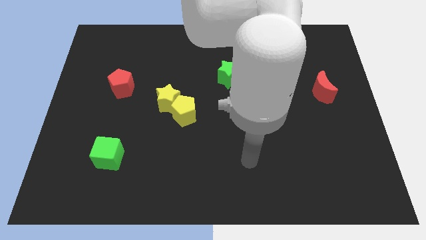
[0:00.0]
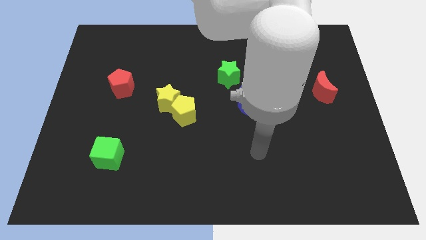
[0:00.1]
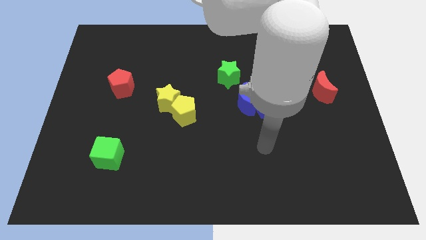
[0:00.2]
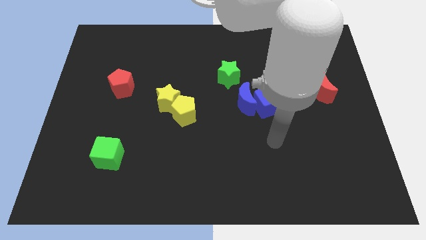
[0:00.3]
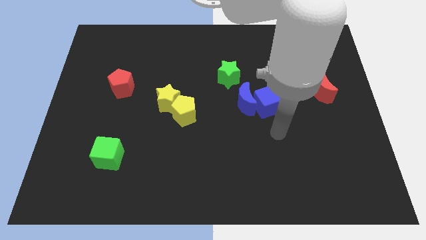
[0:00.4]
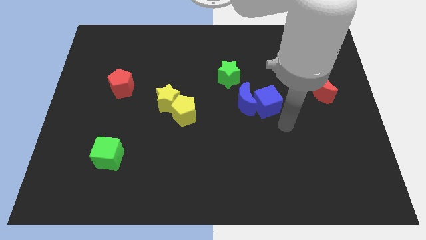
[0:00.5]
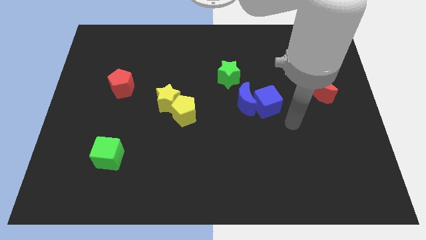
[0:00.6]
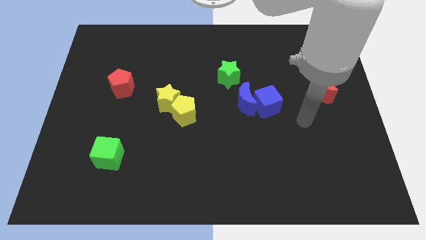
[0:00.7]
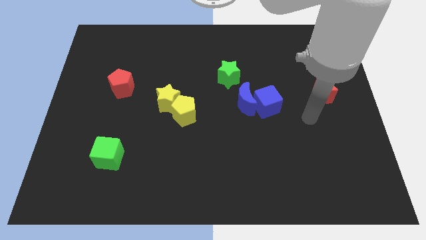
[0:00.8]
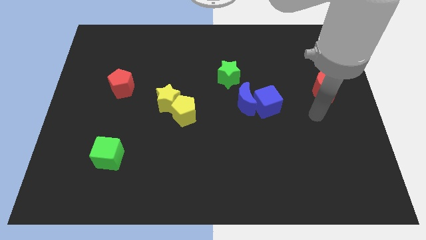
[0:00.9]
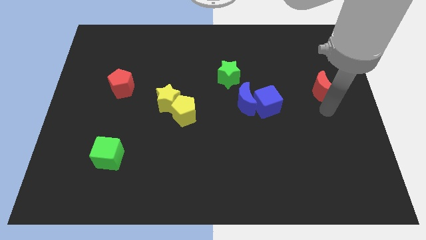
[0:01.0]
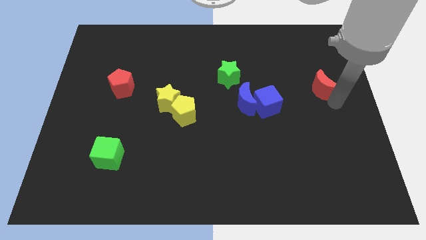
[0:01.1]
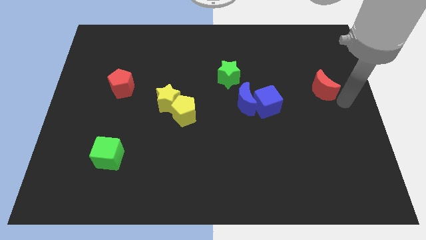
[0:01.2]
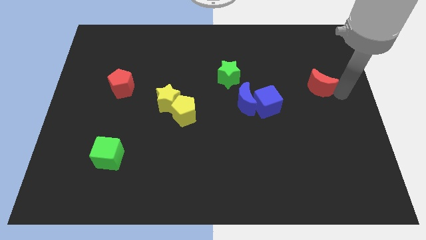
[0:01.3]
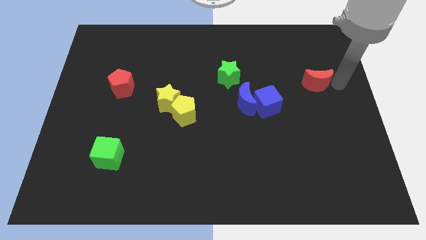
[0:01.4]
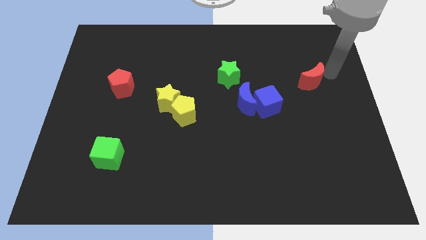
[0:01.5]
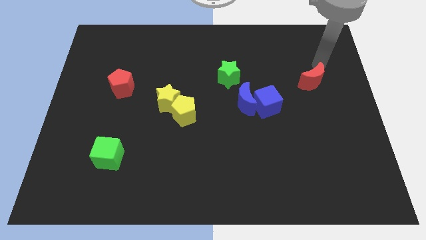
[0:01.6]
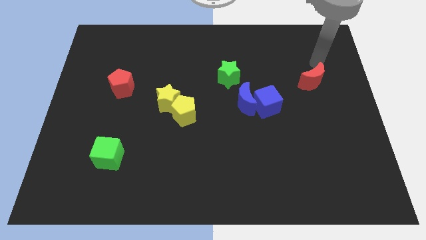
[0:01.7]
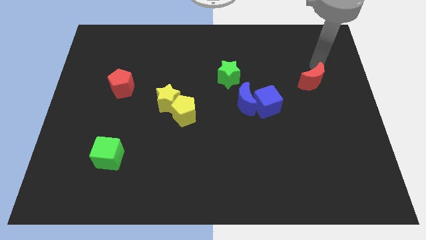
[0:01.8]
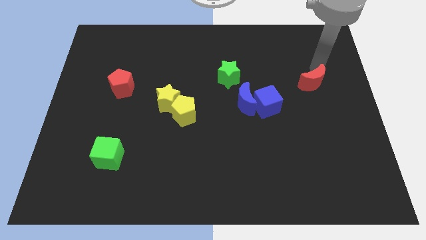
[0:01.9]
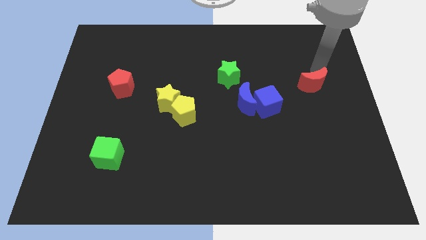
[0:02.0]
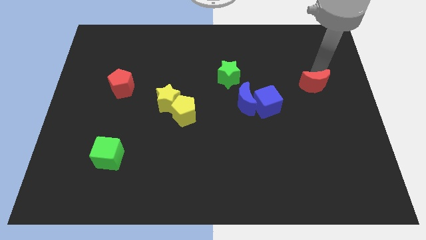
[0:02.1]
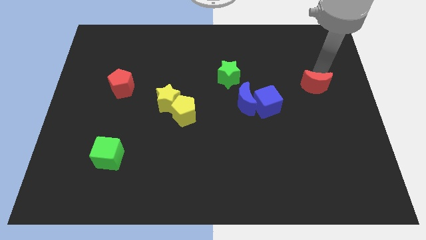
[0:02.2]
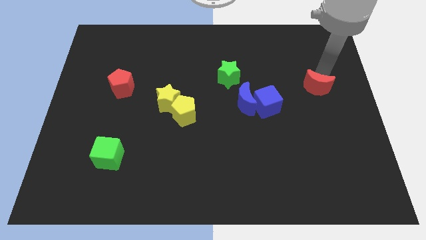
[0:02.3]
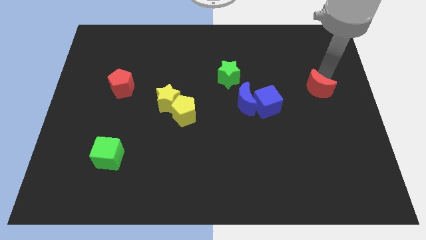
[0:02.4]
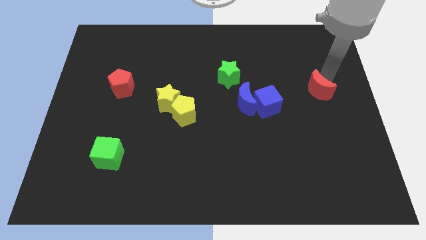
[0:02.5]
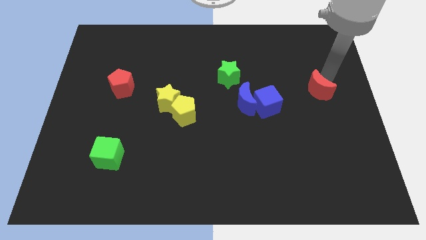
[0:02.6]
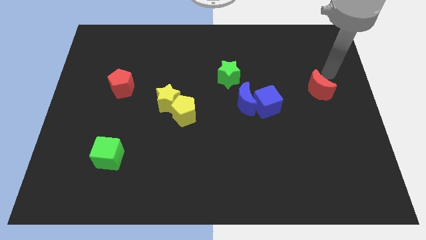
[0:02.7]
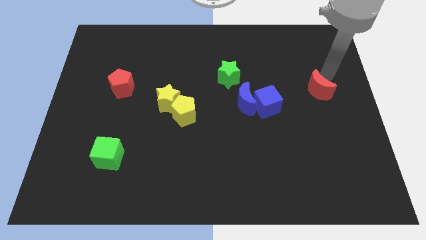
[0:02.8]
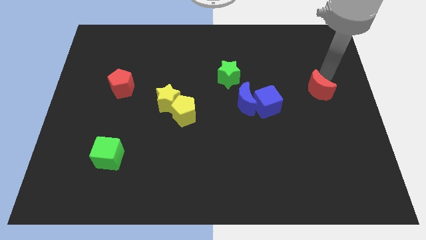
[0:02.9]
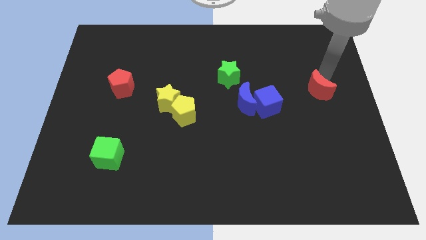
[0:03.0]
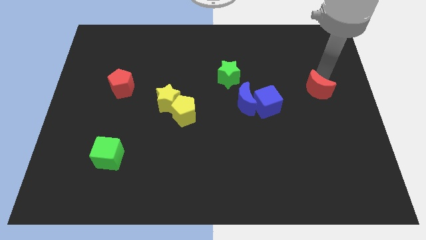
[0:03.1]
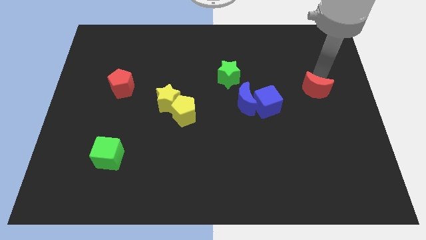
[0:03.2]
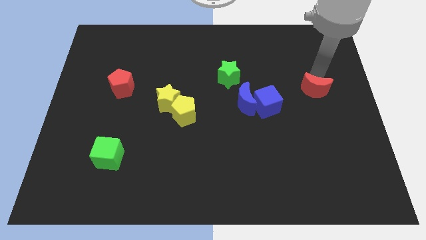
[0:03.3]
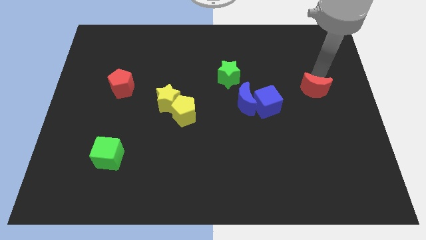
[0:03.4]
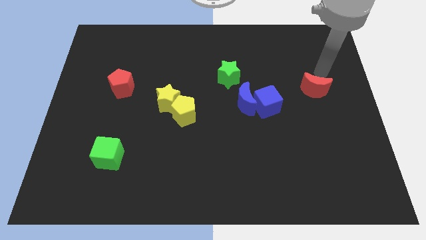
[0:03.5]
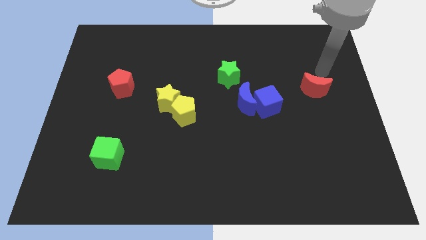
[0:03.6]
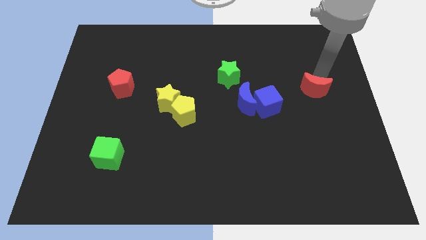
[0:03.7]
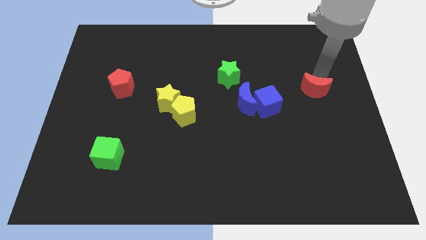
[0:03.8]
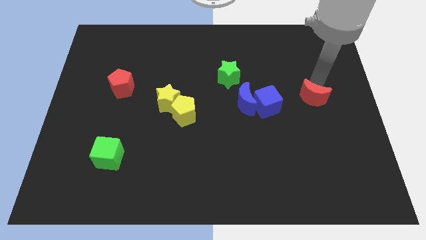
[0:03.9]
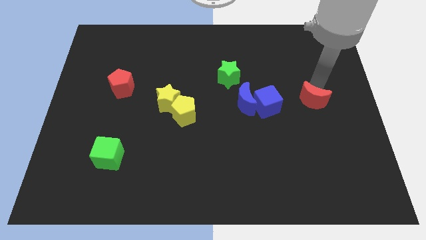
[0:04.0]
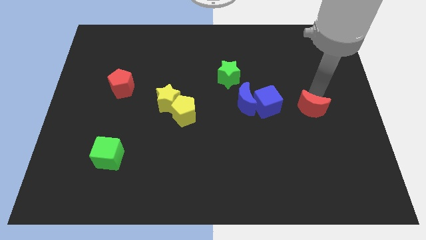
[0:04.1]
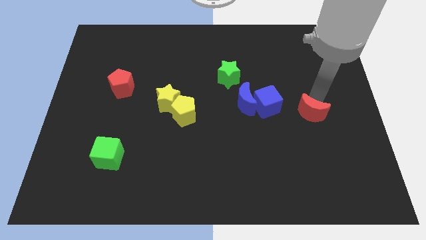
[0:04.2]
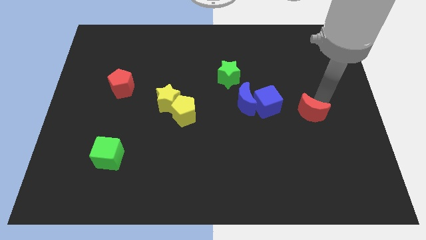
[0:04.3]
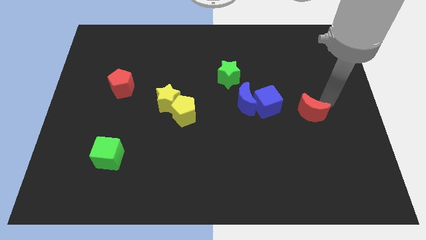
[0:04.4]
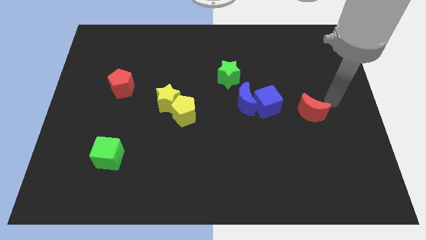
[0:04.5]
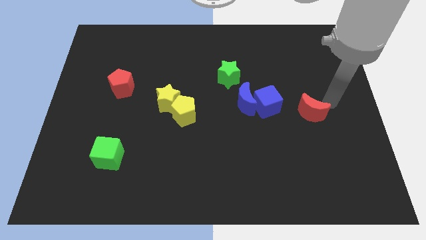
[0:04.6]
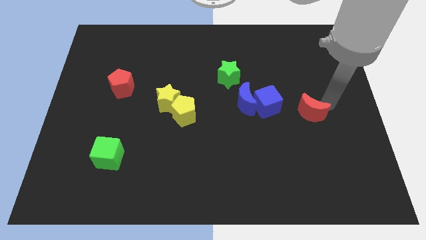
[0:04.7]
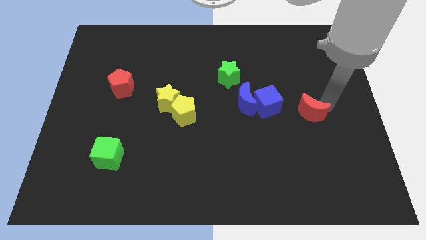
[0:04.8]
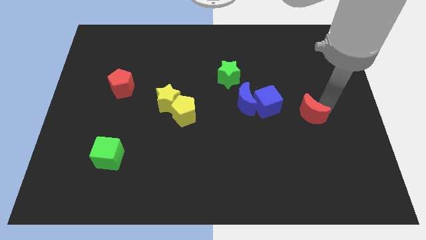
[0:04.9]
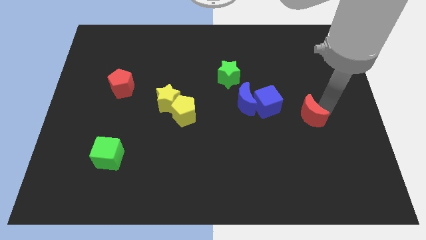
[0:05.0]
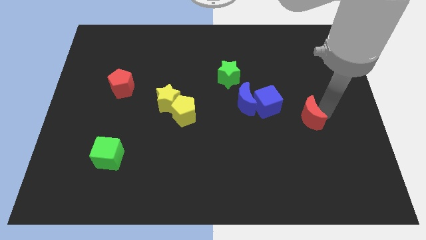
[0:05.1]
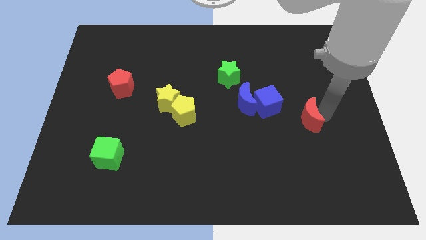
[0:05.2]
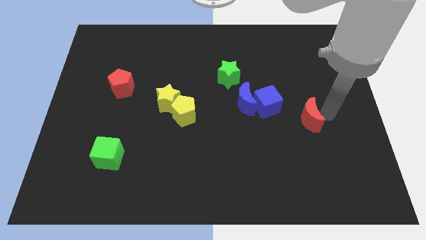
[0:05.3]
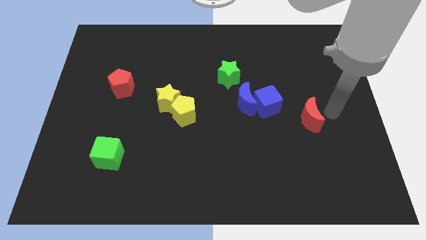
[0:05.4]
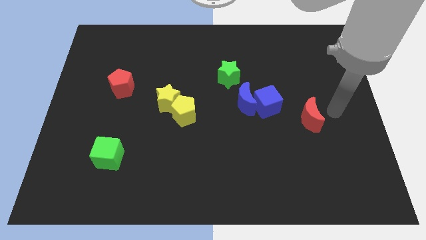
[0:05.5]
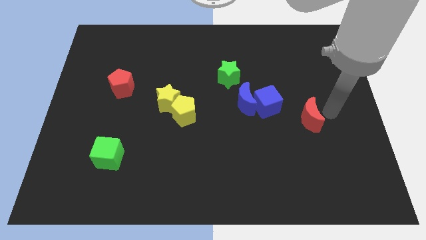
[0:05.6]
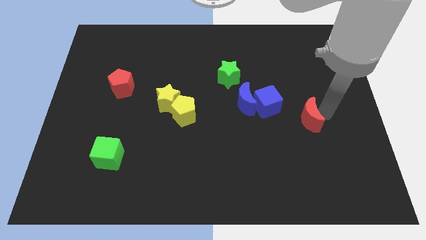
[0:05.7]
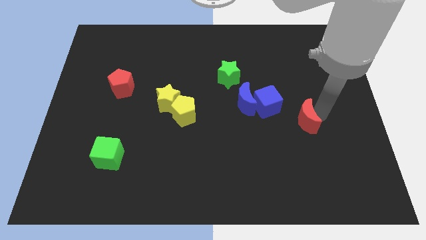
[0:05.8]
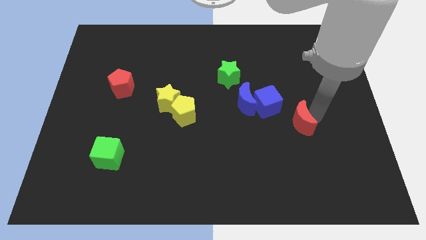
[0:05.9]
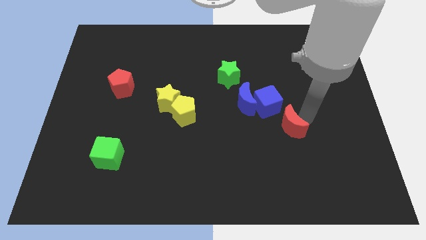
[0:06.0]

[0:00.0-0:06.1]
push the red moon below the blue cube

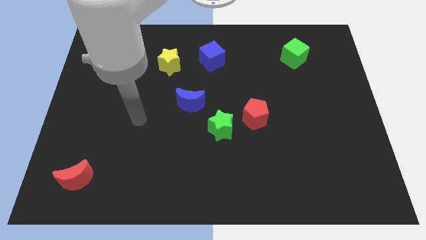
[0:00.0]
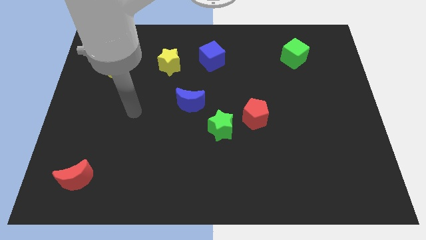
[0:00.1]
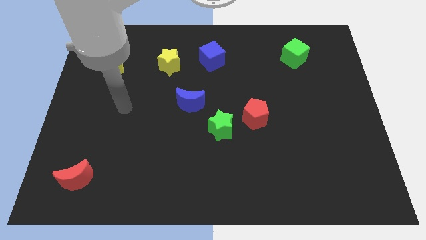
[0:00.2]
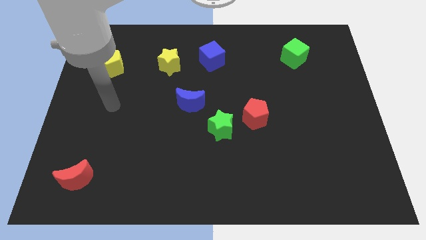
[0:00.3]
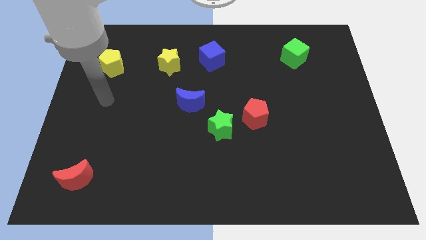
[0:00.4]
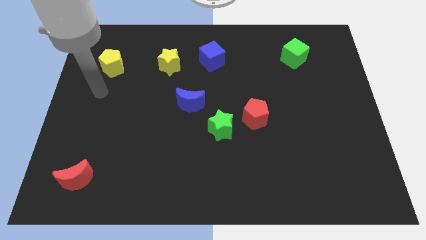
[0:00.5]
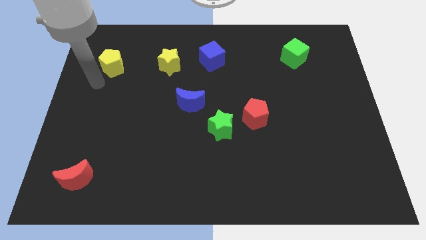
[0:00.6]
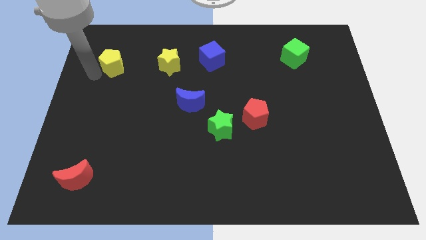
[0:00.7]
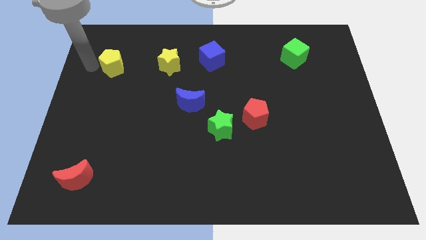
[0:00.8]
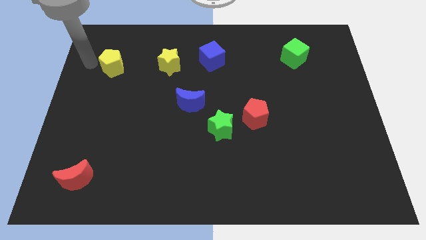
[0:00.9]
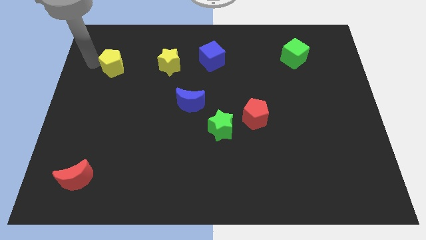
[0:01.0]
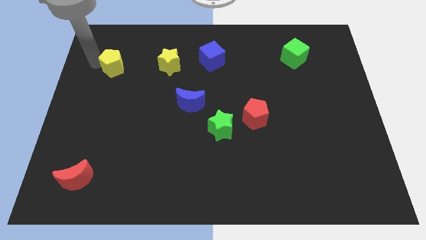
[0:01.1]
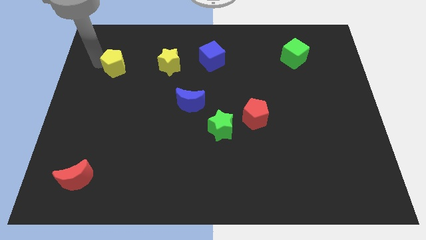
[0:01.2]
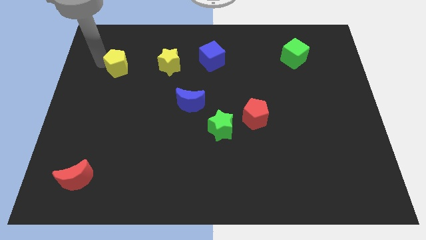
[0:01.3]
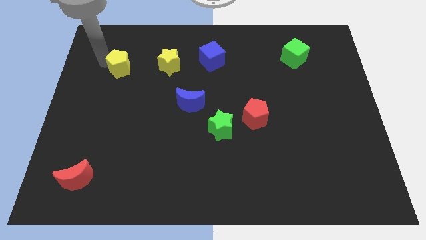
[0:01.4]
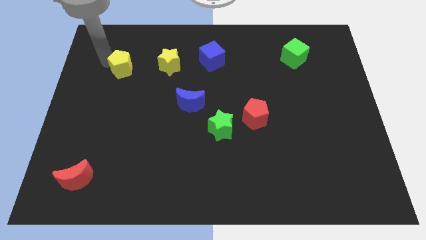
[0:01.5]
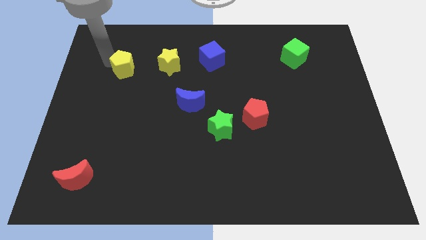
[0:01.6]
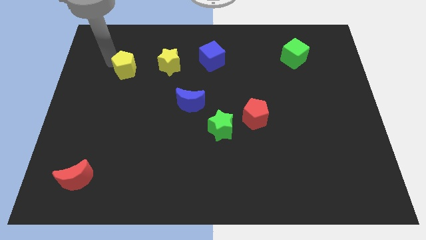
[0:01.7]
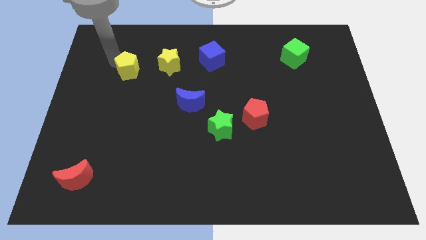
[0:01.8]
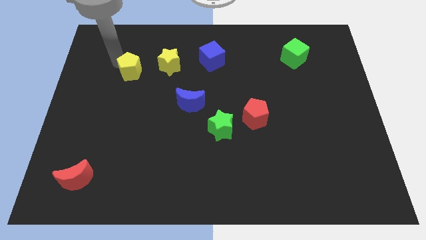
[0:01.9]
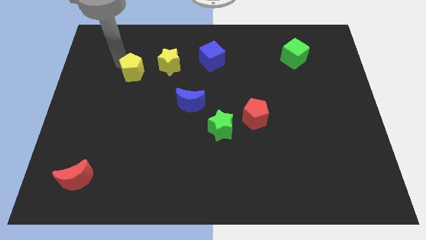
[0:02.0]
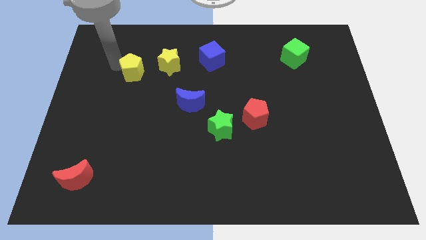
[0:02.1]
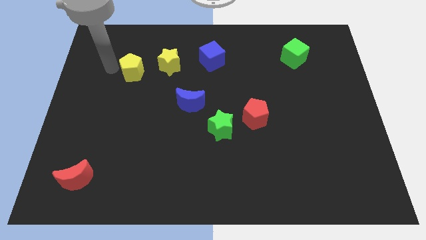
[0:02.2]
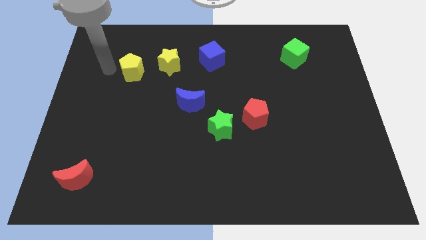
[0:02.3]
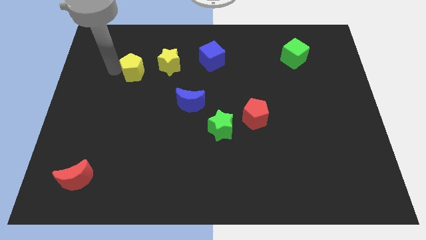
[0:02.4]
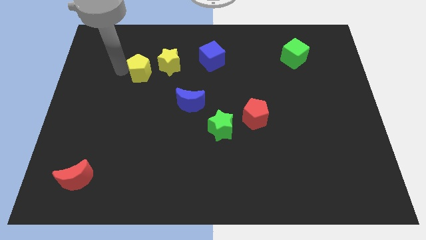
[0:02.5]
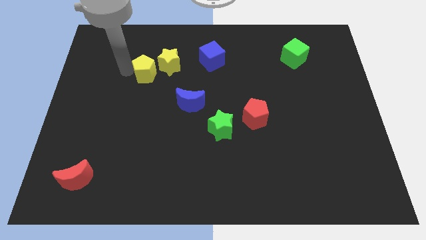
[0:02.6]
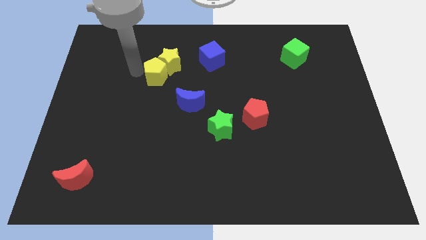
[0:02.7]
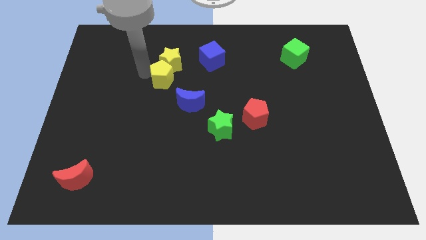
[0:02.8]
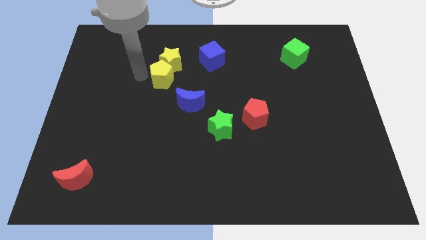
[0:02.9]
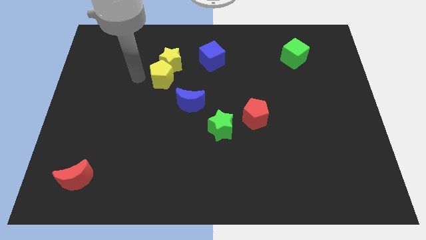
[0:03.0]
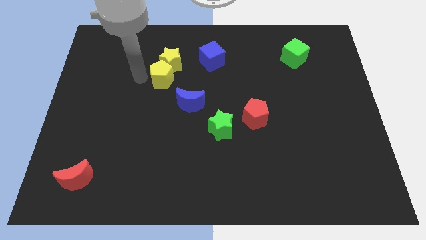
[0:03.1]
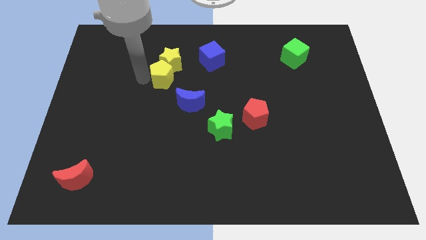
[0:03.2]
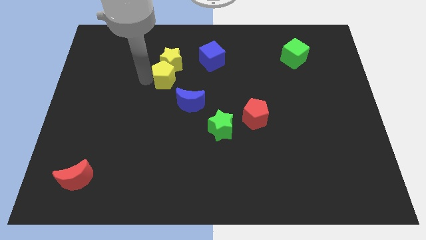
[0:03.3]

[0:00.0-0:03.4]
move the yellow pentagon to the bottom right of the yellow star
